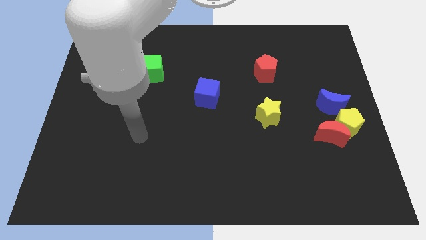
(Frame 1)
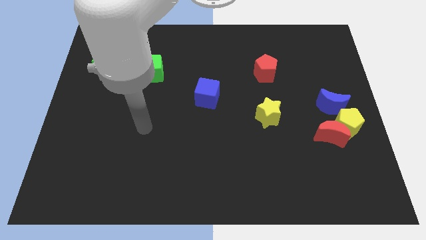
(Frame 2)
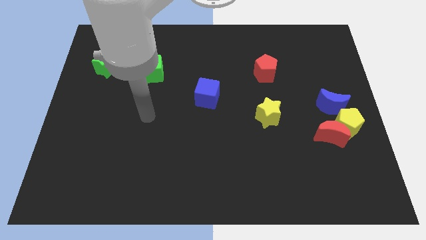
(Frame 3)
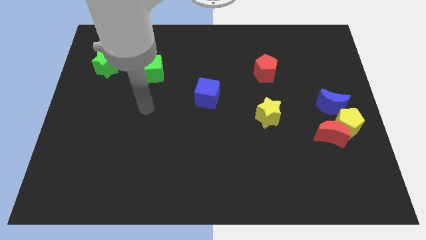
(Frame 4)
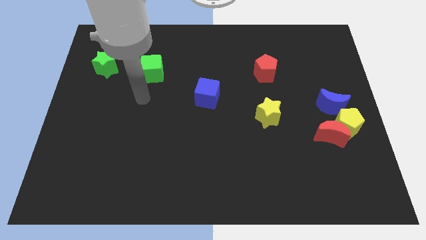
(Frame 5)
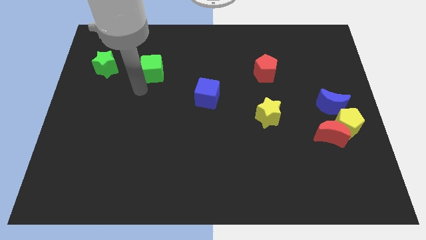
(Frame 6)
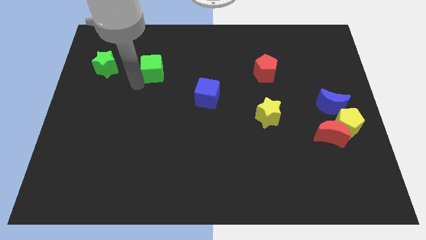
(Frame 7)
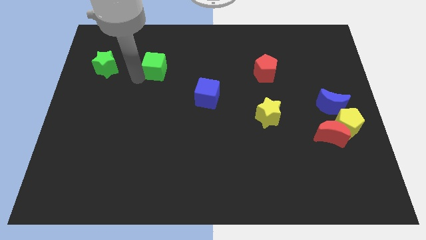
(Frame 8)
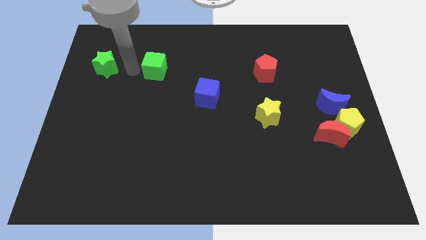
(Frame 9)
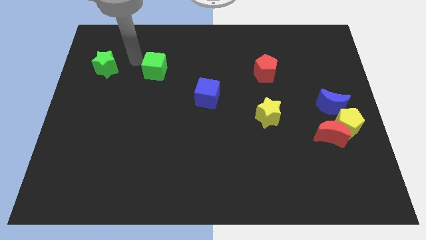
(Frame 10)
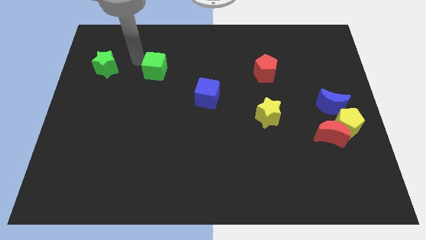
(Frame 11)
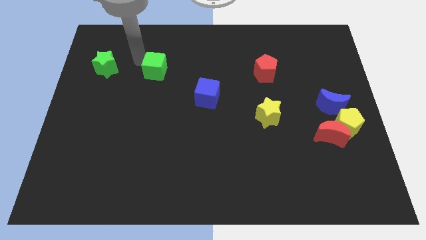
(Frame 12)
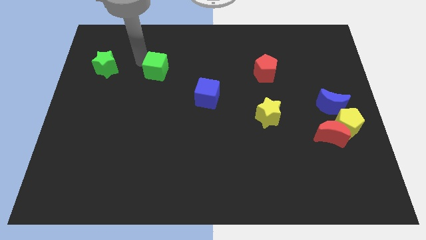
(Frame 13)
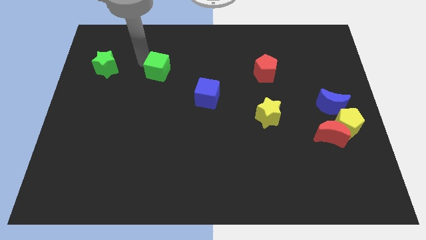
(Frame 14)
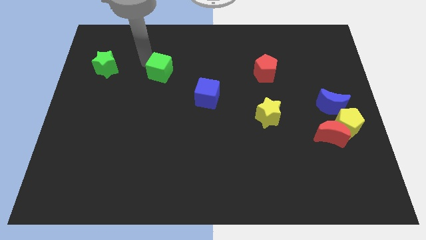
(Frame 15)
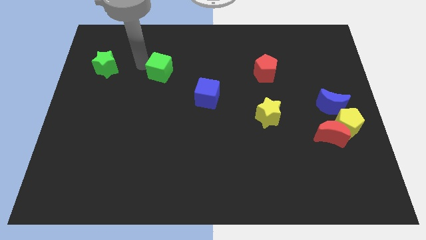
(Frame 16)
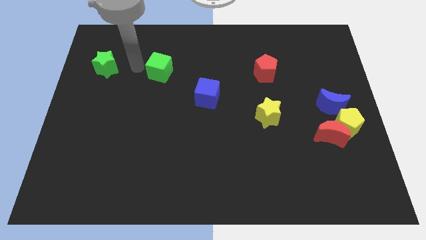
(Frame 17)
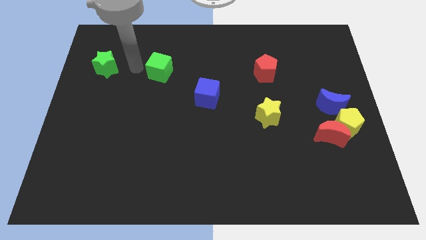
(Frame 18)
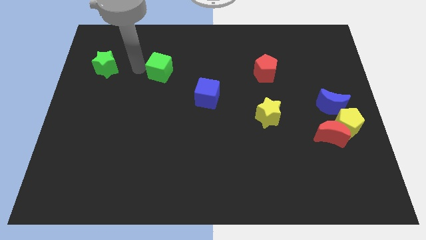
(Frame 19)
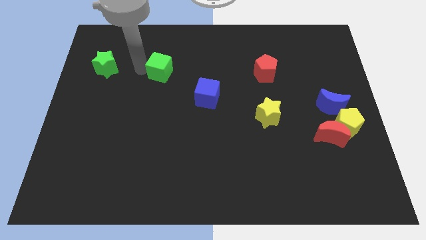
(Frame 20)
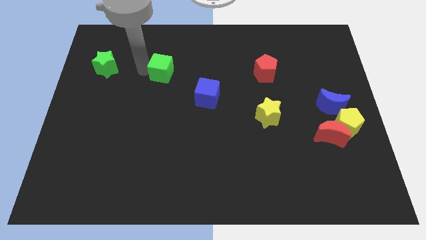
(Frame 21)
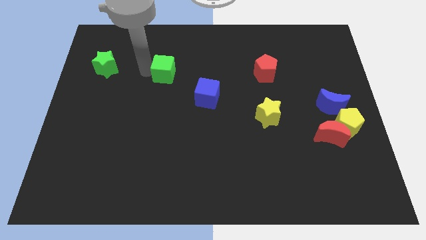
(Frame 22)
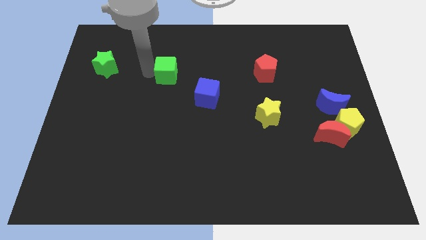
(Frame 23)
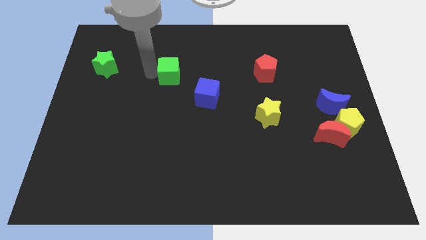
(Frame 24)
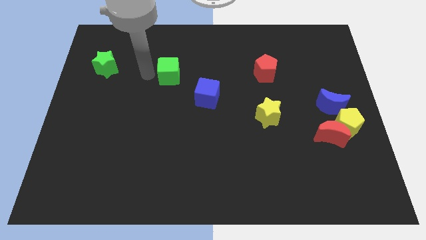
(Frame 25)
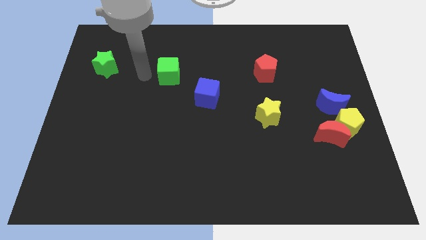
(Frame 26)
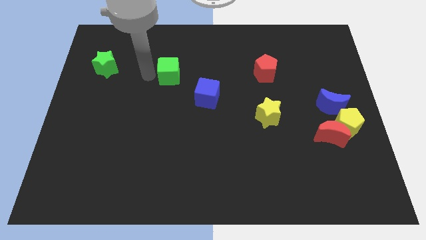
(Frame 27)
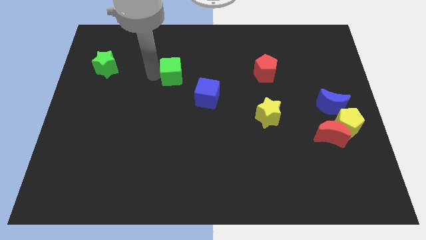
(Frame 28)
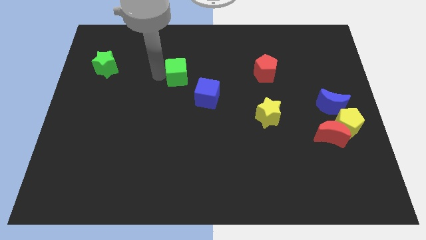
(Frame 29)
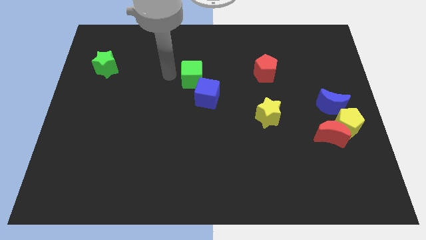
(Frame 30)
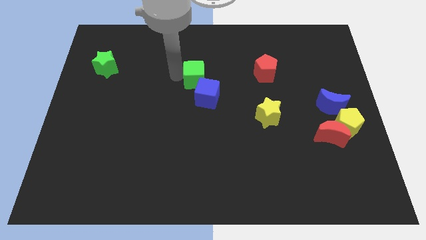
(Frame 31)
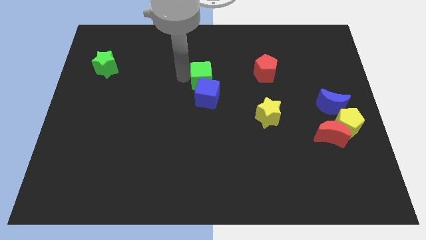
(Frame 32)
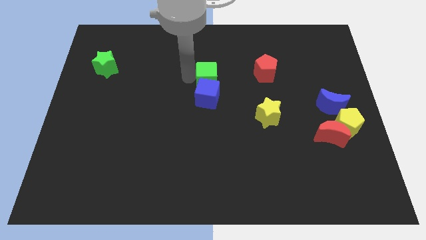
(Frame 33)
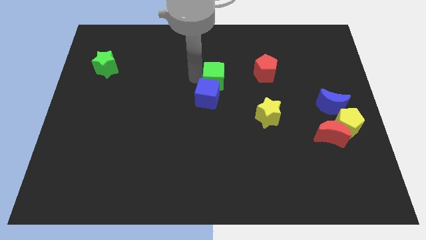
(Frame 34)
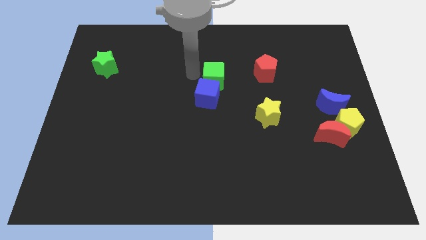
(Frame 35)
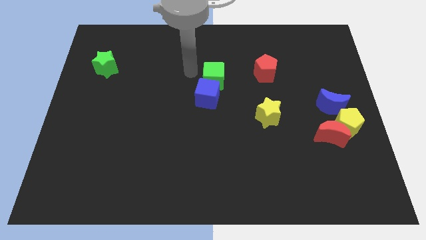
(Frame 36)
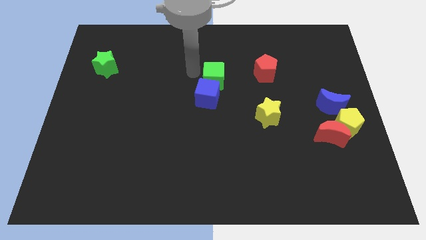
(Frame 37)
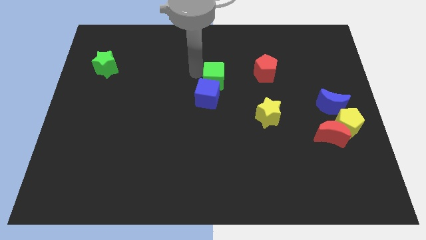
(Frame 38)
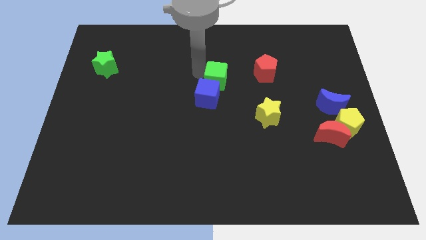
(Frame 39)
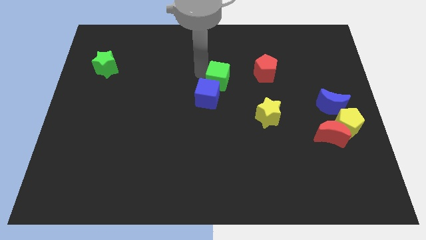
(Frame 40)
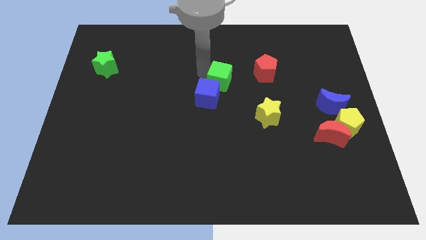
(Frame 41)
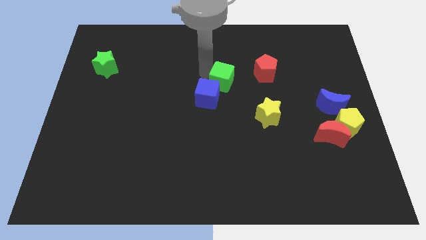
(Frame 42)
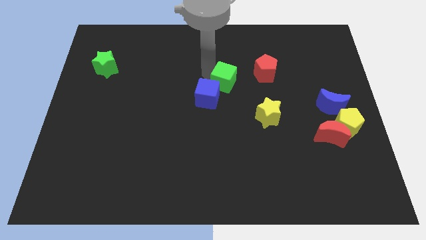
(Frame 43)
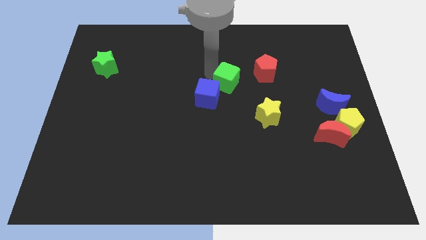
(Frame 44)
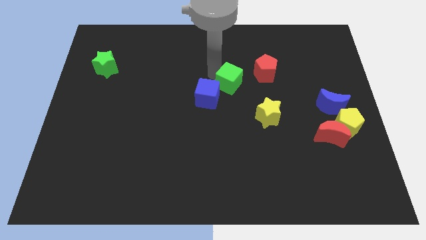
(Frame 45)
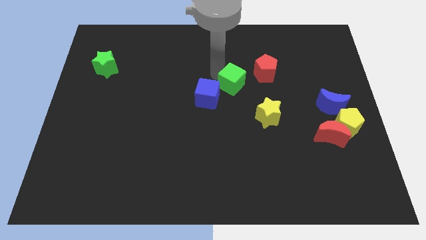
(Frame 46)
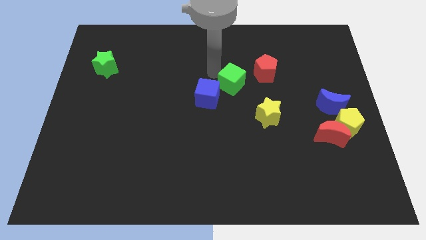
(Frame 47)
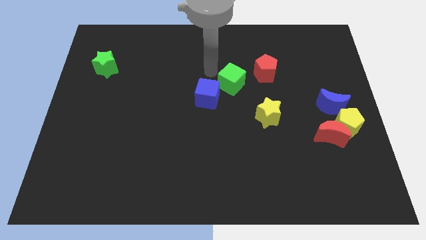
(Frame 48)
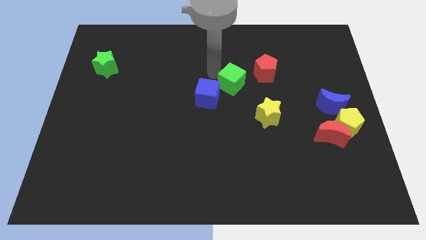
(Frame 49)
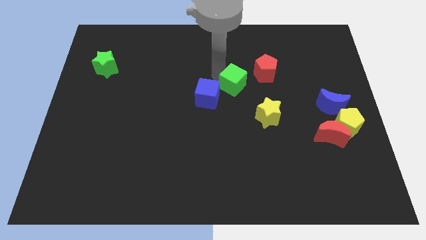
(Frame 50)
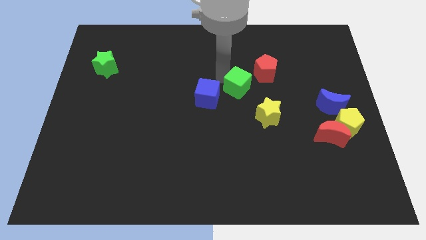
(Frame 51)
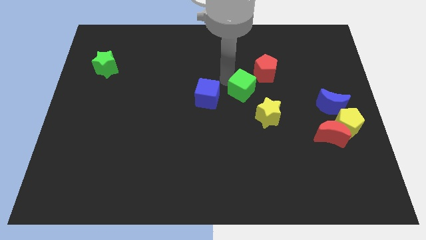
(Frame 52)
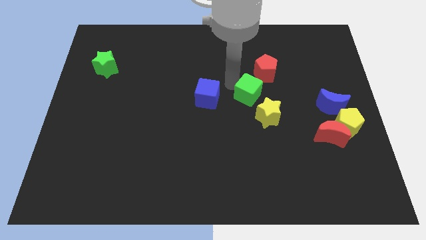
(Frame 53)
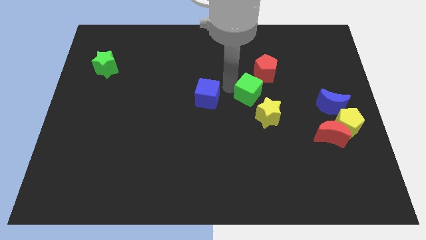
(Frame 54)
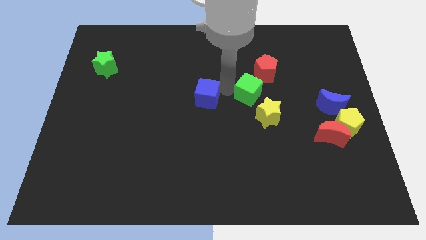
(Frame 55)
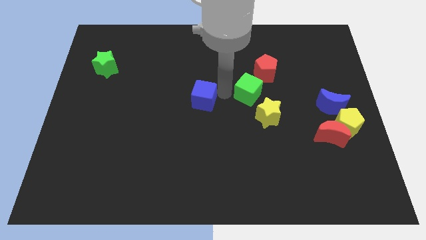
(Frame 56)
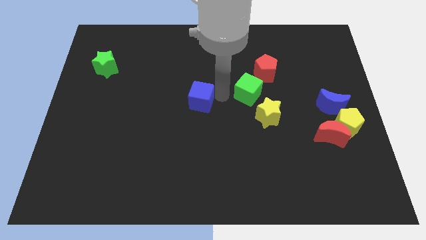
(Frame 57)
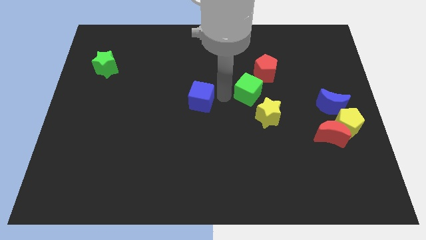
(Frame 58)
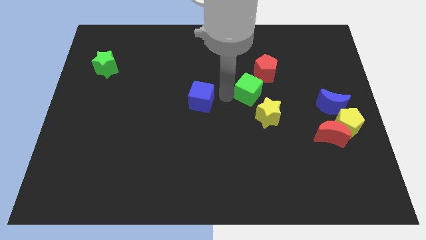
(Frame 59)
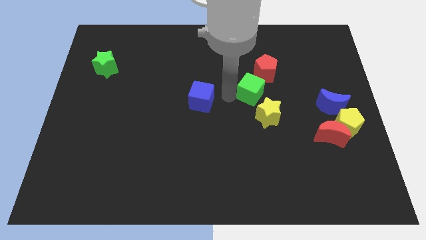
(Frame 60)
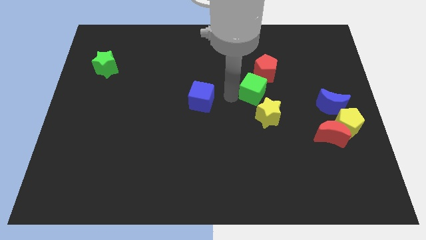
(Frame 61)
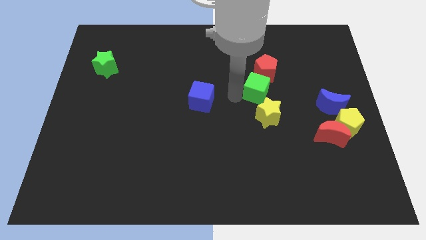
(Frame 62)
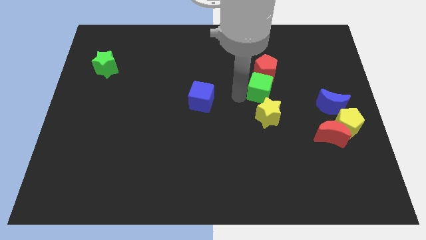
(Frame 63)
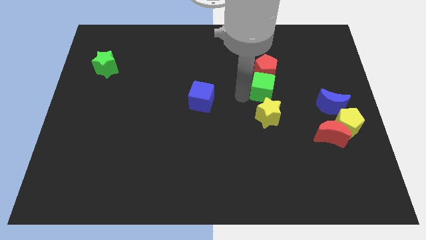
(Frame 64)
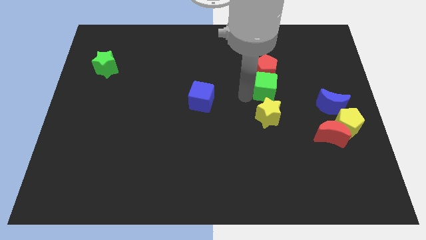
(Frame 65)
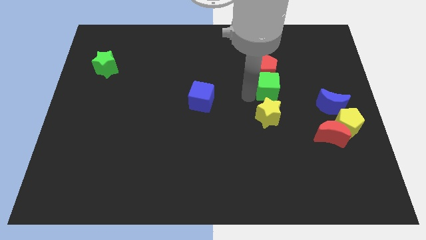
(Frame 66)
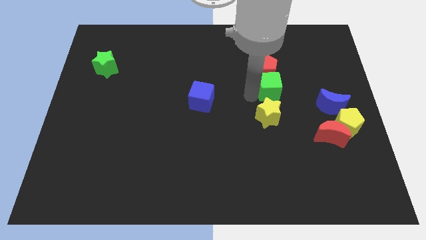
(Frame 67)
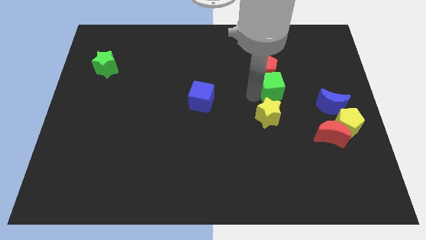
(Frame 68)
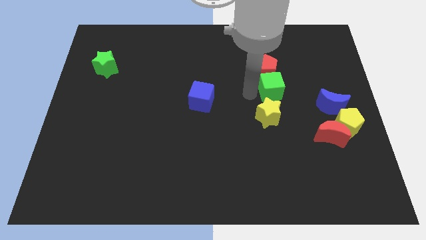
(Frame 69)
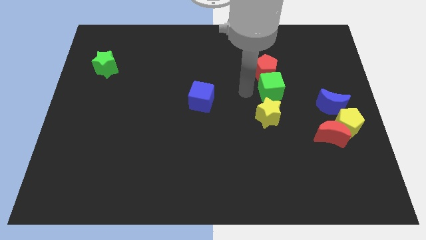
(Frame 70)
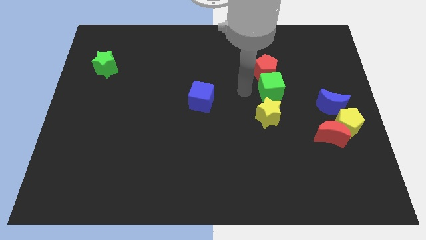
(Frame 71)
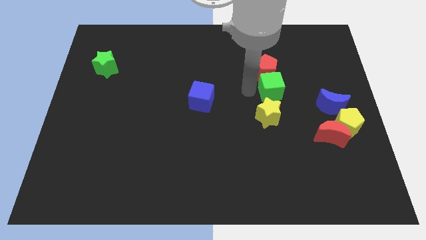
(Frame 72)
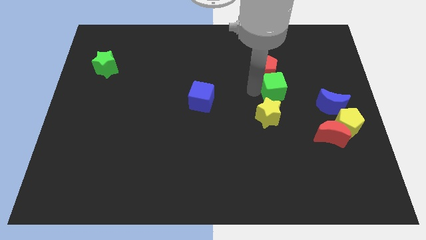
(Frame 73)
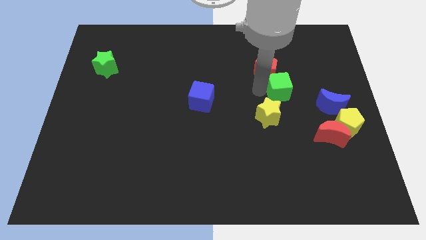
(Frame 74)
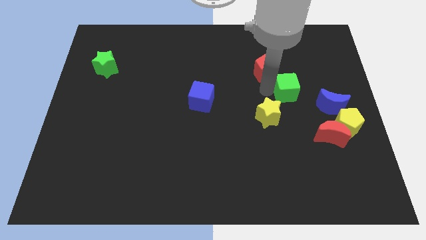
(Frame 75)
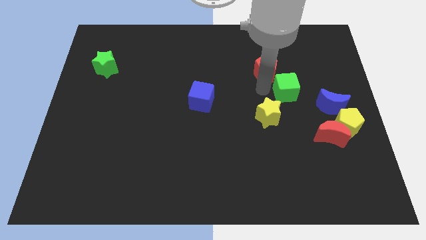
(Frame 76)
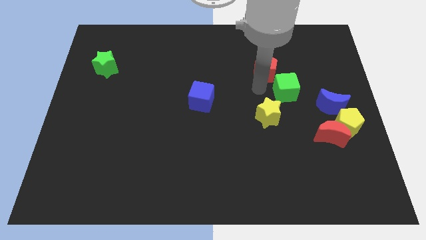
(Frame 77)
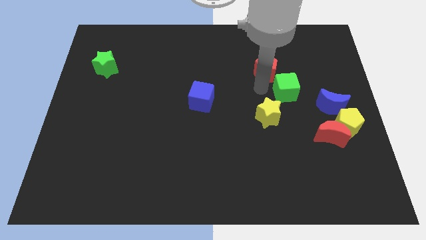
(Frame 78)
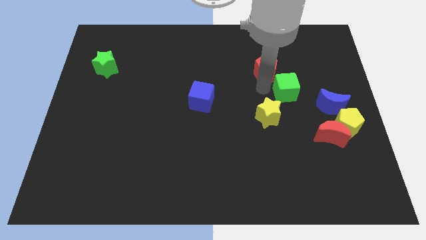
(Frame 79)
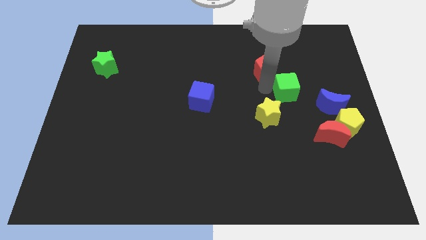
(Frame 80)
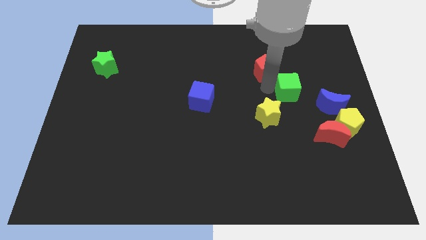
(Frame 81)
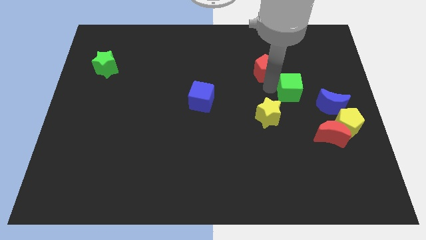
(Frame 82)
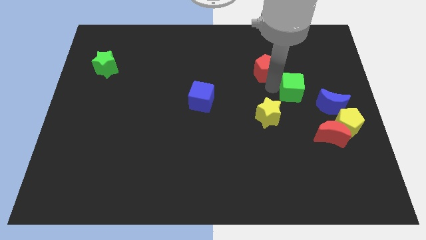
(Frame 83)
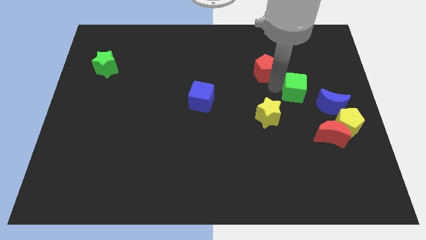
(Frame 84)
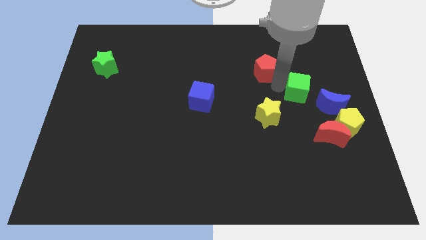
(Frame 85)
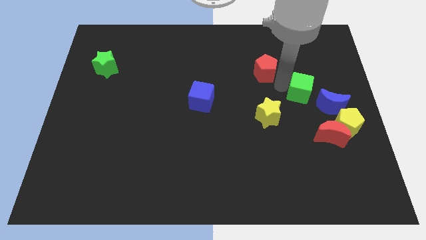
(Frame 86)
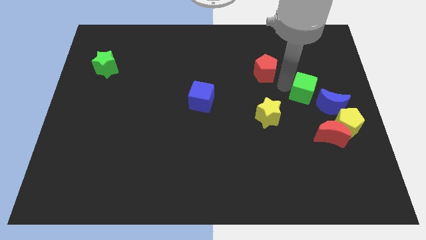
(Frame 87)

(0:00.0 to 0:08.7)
put the green cube above the red moon
